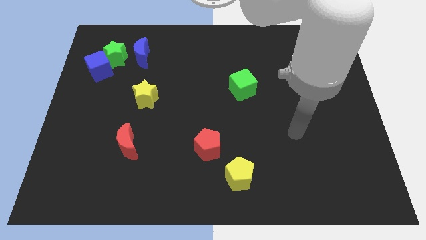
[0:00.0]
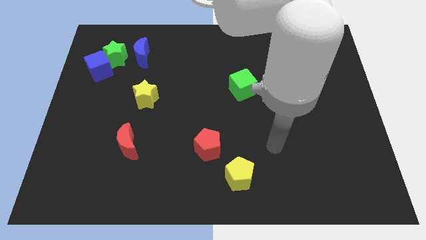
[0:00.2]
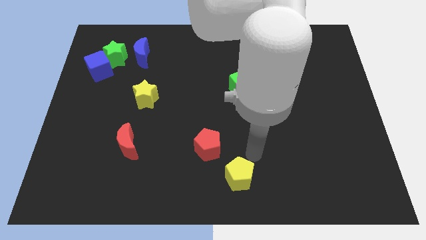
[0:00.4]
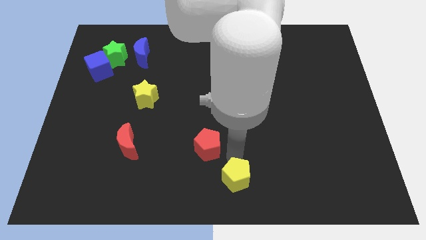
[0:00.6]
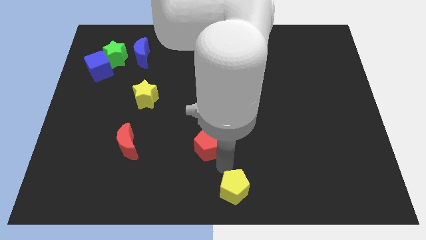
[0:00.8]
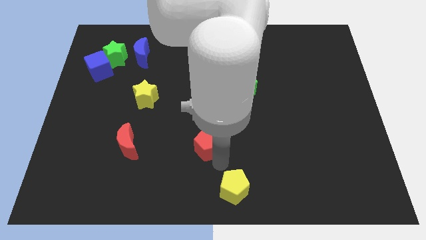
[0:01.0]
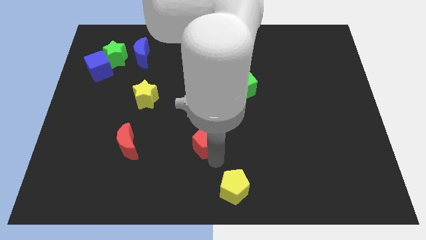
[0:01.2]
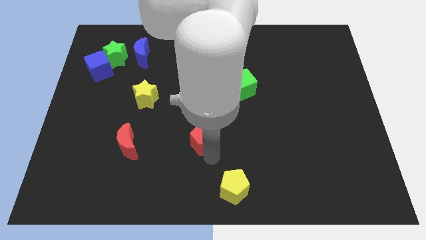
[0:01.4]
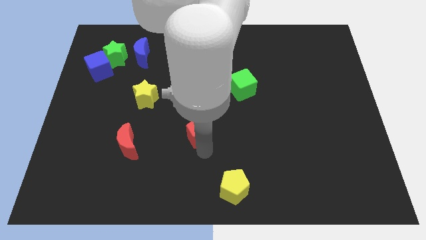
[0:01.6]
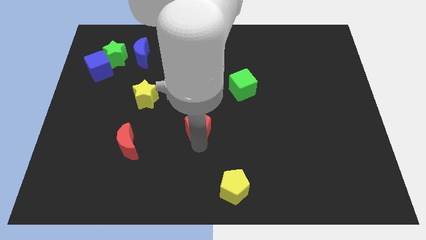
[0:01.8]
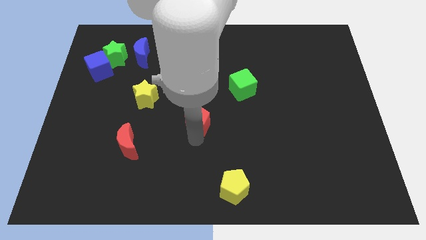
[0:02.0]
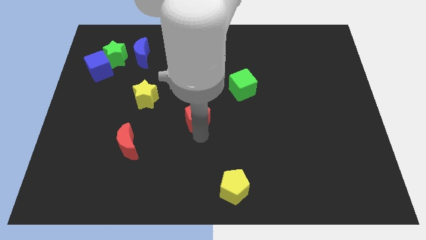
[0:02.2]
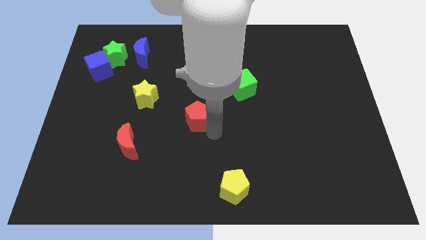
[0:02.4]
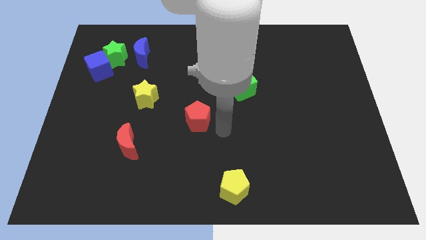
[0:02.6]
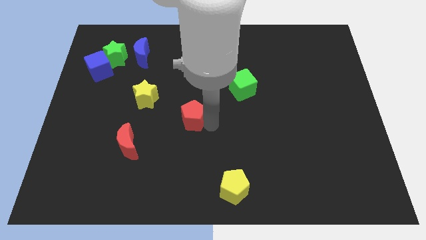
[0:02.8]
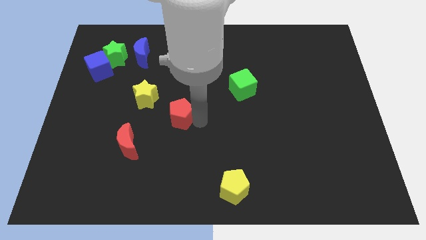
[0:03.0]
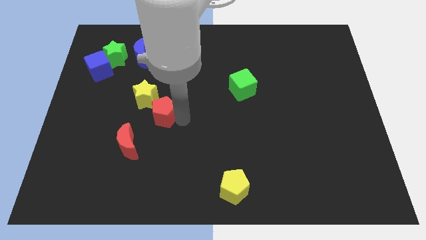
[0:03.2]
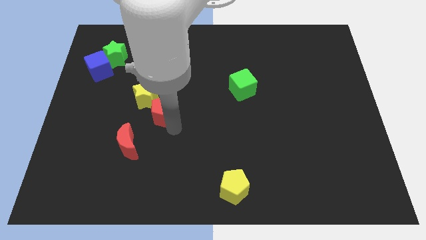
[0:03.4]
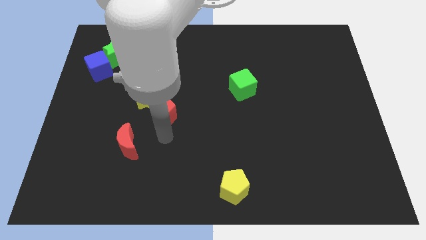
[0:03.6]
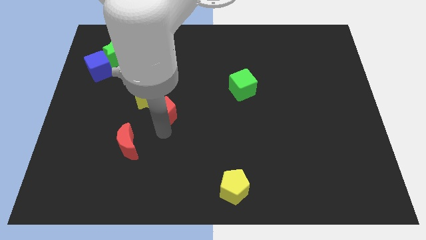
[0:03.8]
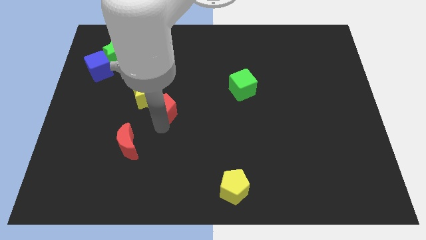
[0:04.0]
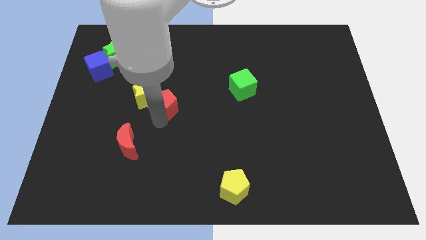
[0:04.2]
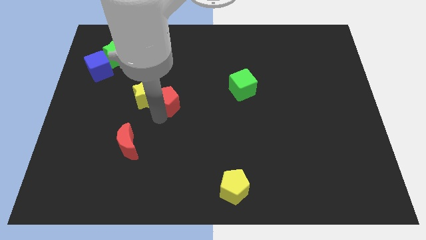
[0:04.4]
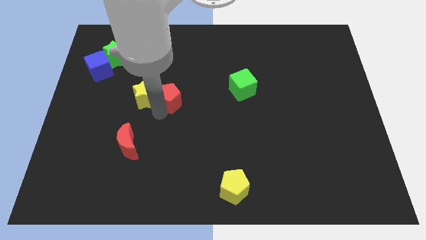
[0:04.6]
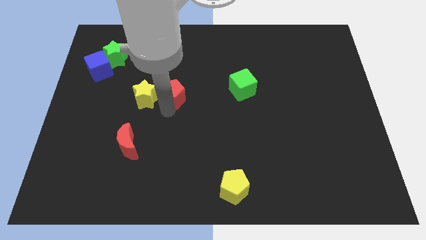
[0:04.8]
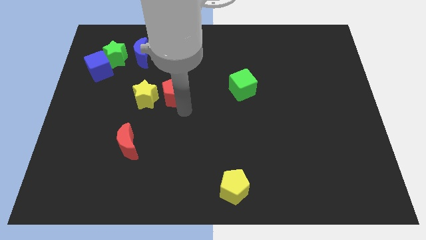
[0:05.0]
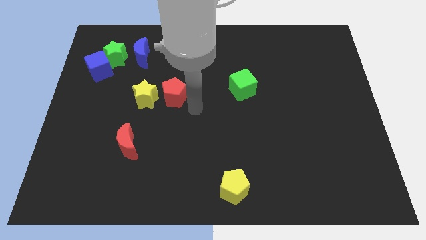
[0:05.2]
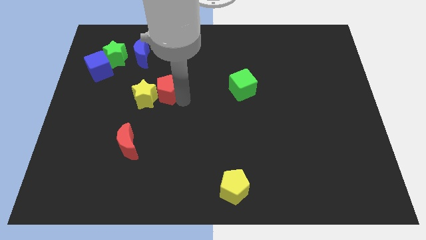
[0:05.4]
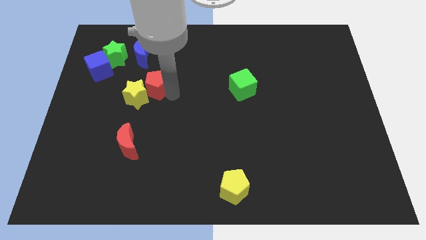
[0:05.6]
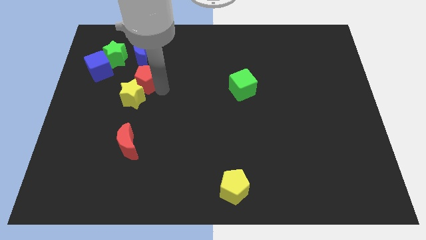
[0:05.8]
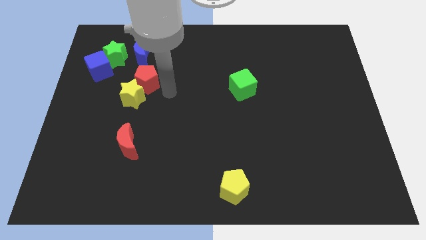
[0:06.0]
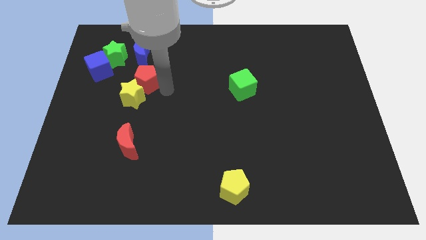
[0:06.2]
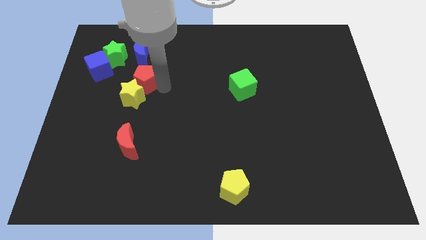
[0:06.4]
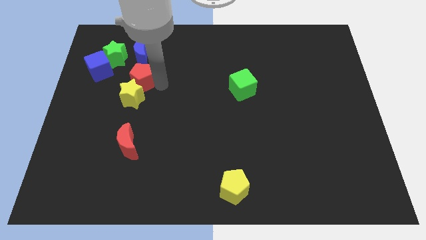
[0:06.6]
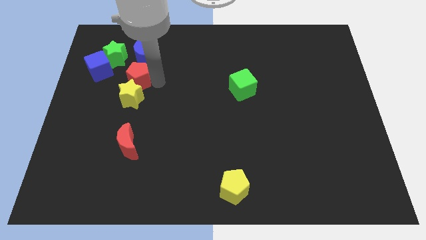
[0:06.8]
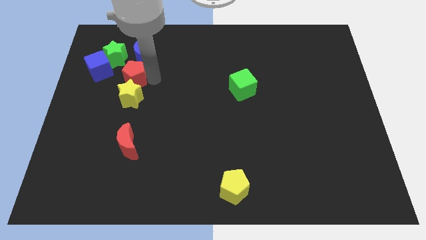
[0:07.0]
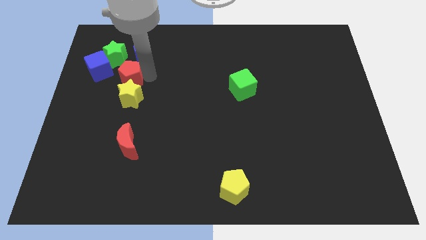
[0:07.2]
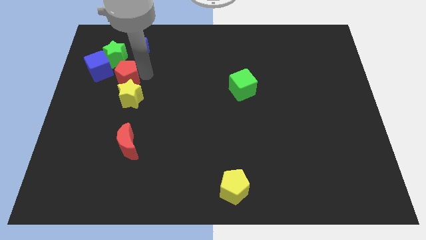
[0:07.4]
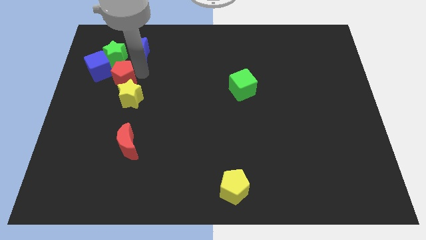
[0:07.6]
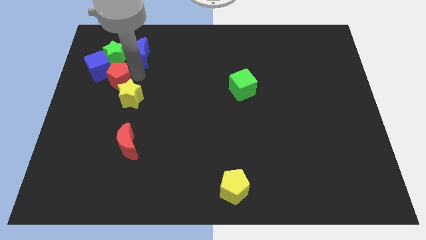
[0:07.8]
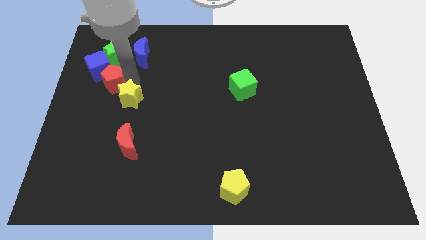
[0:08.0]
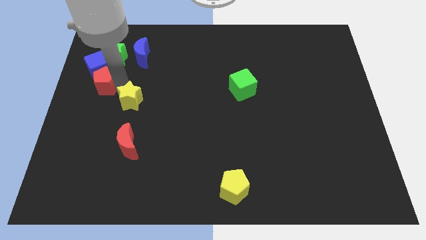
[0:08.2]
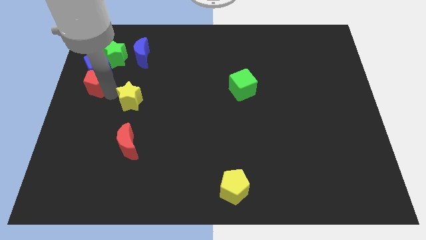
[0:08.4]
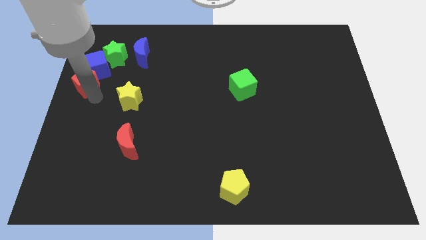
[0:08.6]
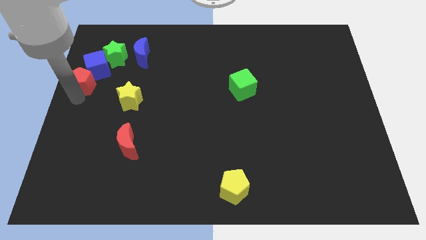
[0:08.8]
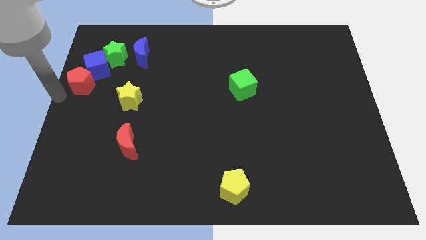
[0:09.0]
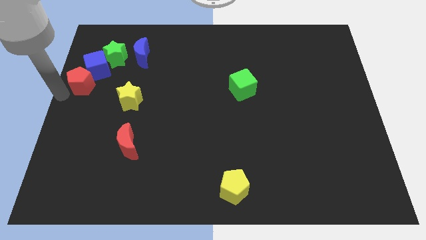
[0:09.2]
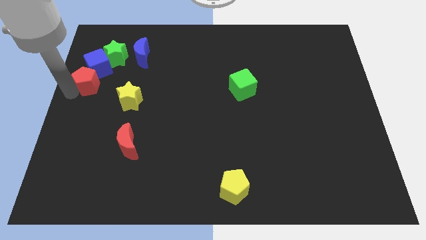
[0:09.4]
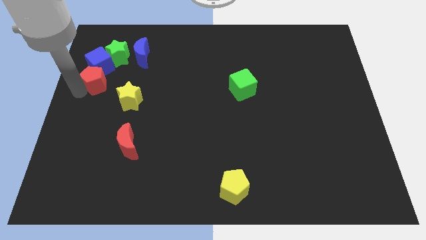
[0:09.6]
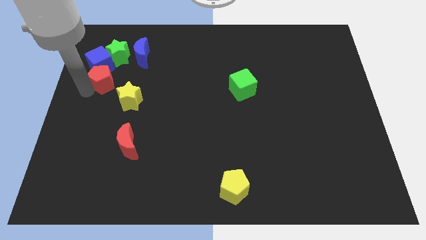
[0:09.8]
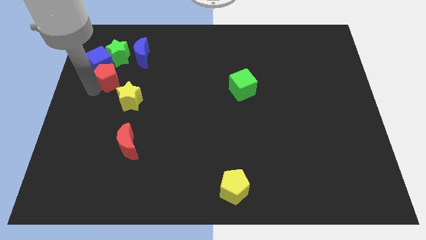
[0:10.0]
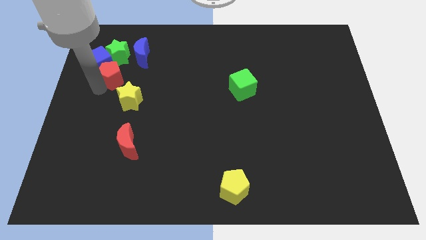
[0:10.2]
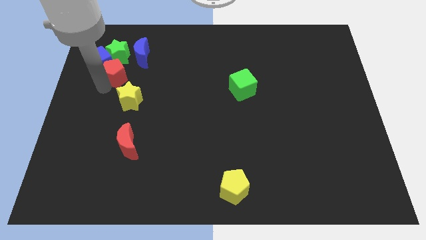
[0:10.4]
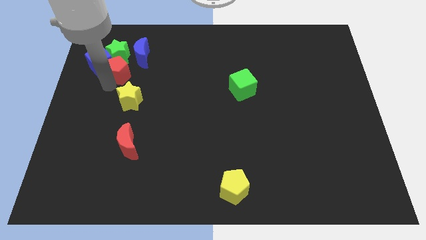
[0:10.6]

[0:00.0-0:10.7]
slide the red pentagon close to the green star

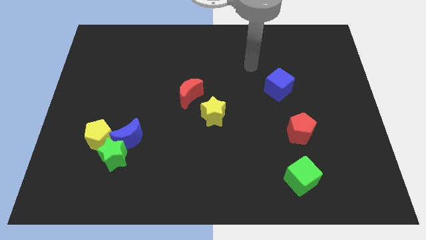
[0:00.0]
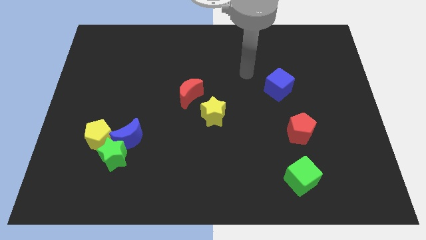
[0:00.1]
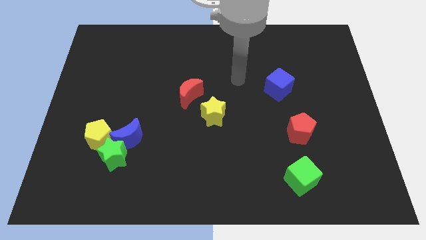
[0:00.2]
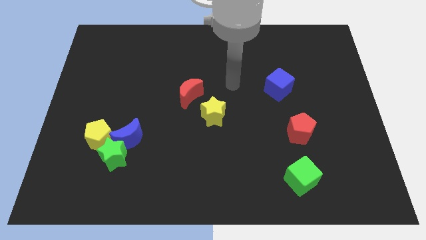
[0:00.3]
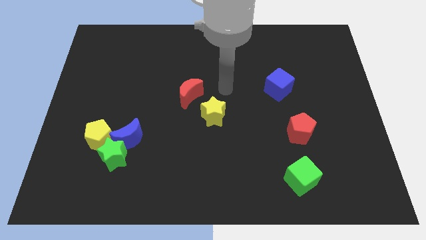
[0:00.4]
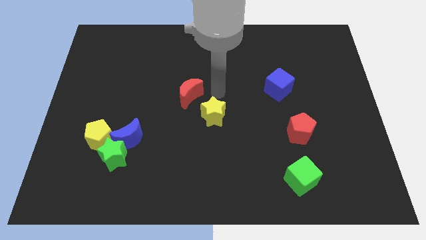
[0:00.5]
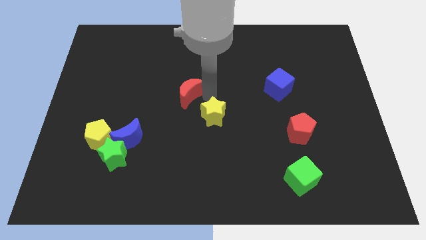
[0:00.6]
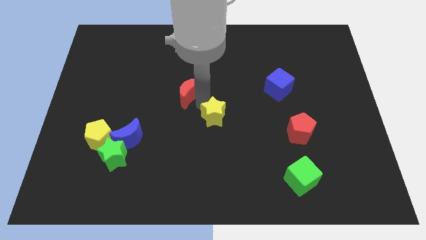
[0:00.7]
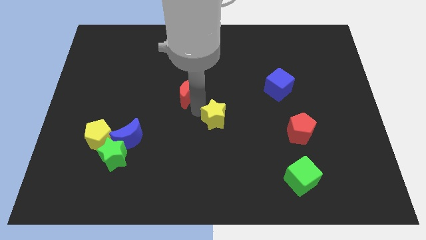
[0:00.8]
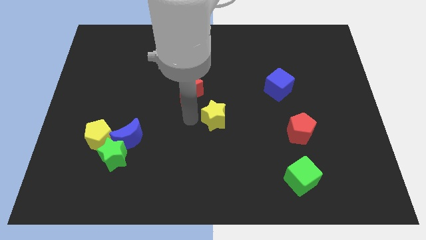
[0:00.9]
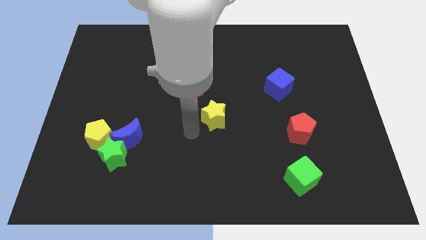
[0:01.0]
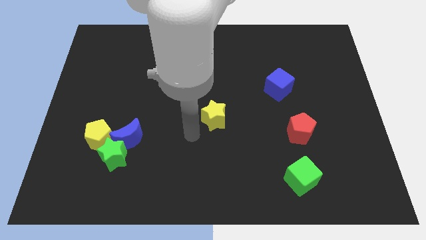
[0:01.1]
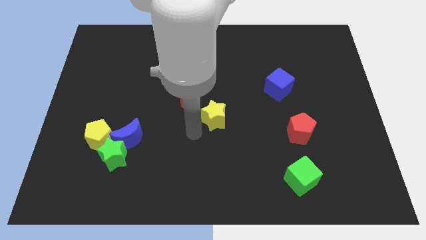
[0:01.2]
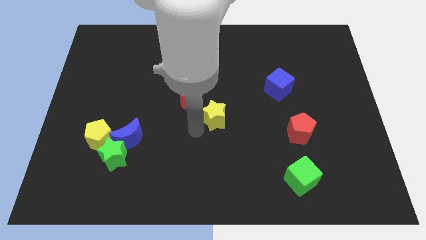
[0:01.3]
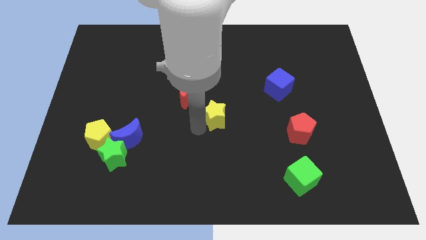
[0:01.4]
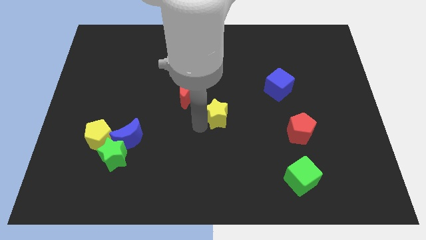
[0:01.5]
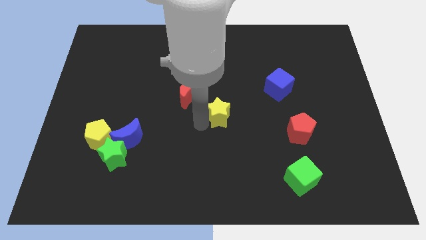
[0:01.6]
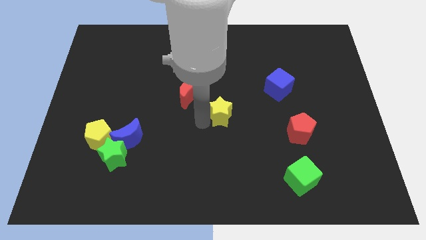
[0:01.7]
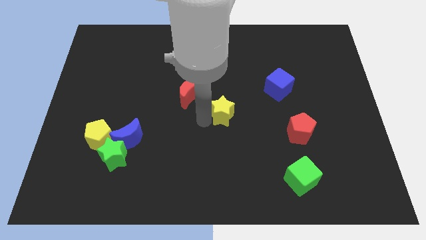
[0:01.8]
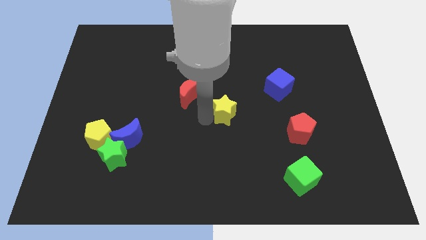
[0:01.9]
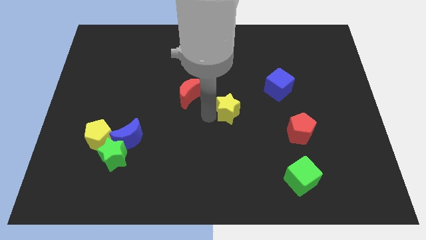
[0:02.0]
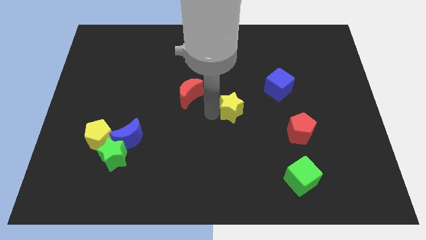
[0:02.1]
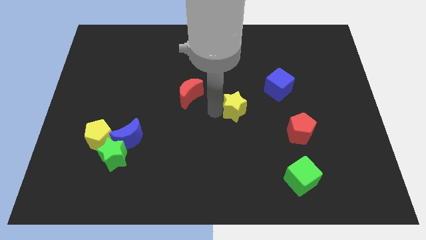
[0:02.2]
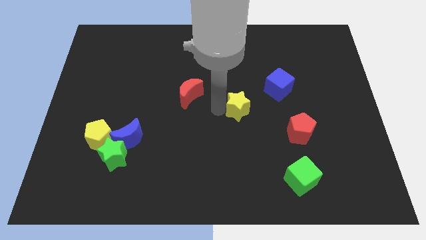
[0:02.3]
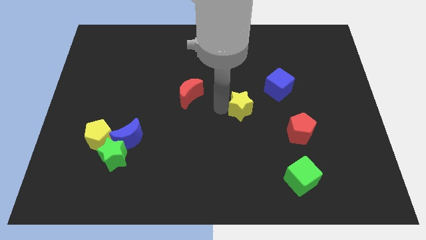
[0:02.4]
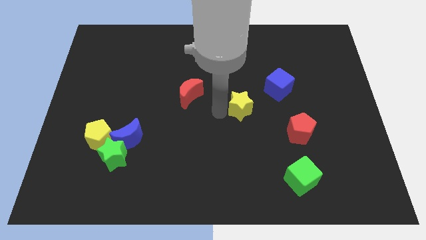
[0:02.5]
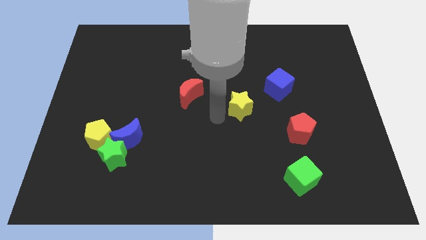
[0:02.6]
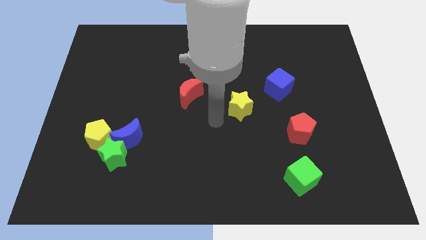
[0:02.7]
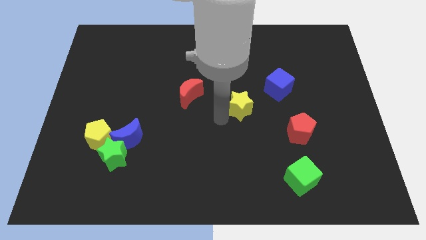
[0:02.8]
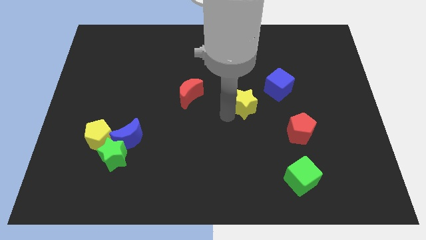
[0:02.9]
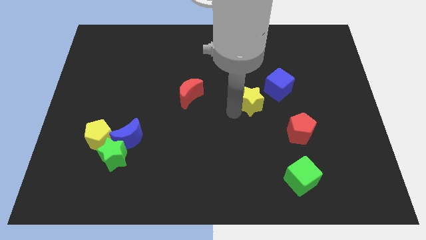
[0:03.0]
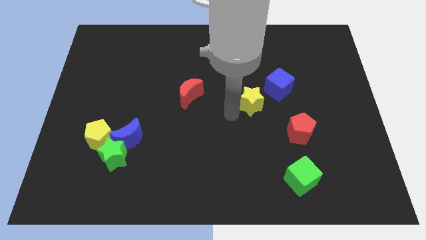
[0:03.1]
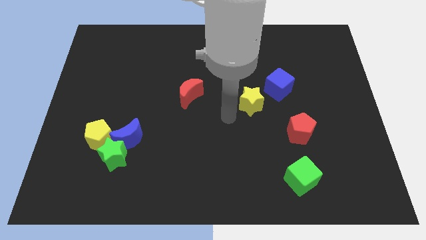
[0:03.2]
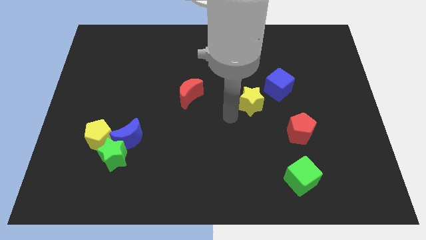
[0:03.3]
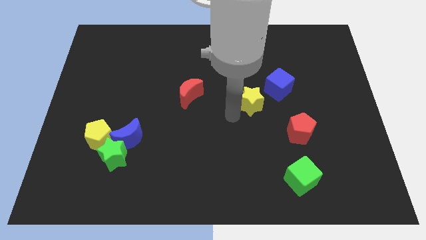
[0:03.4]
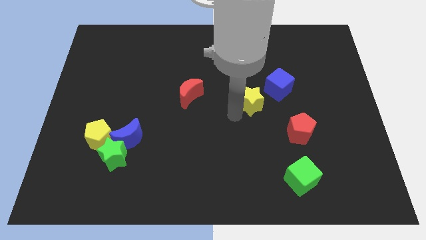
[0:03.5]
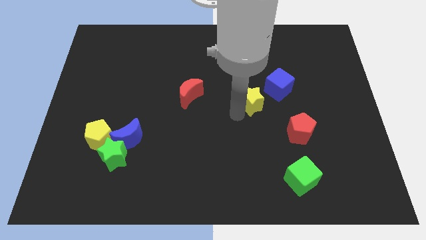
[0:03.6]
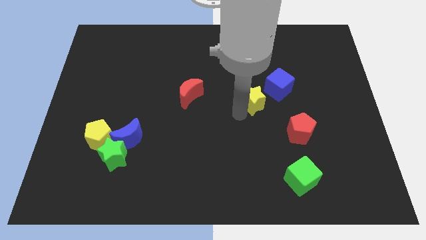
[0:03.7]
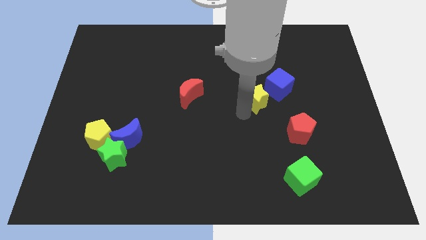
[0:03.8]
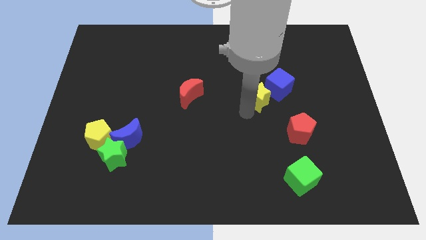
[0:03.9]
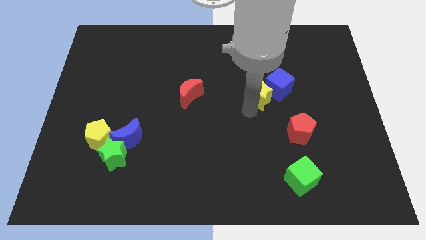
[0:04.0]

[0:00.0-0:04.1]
slide the yellow star towards the blue cube
